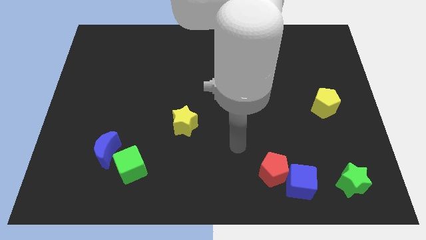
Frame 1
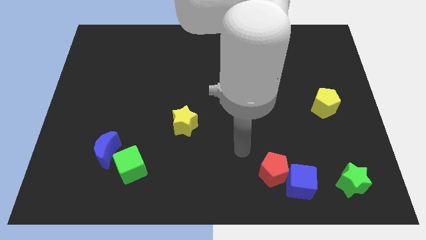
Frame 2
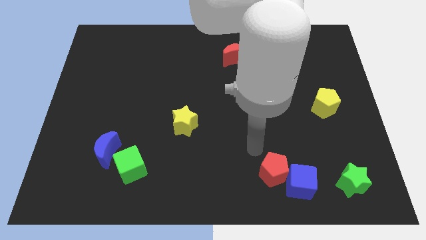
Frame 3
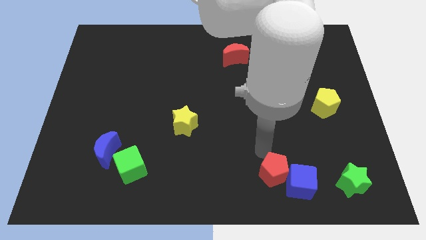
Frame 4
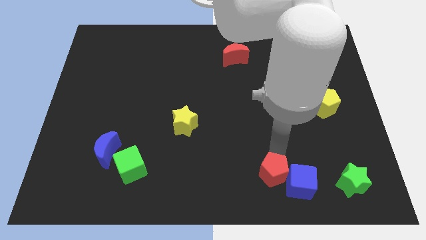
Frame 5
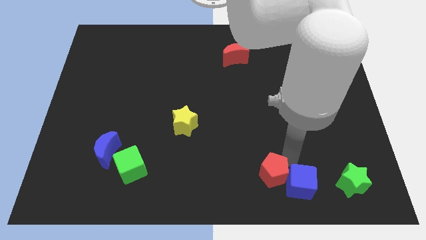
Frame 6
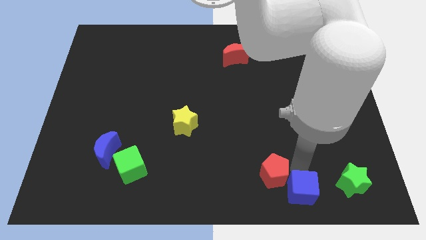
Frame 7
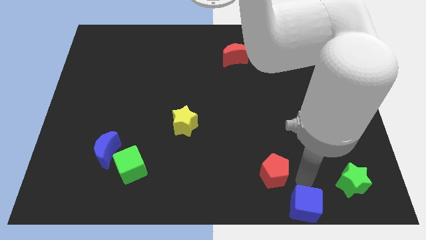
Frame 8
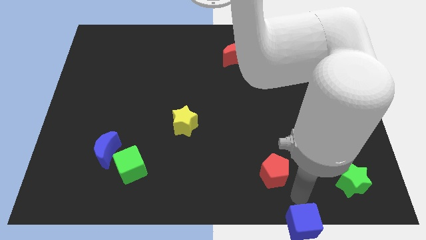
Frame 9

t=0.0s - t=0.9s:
separate the red pentagon from the blue cube

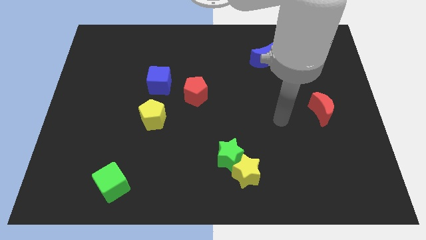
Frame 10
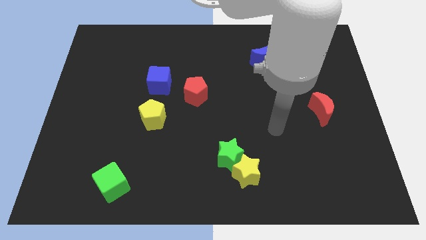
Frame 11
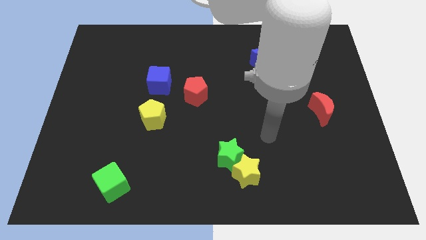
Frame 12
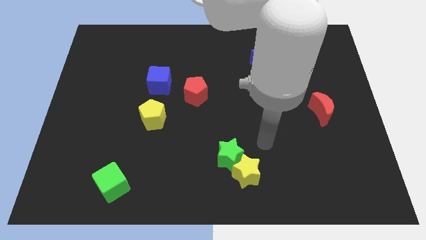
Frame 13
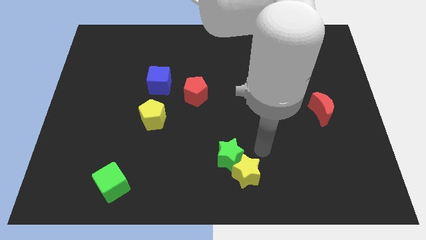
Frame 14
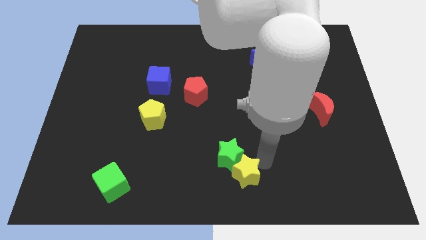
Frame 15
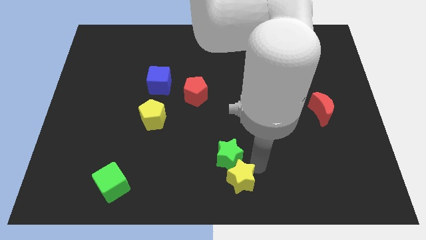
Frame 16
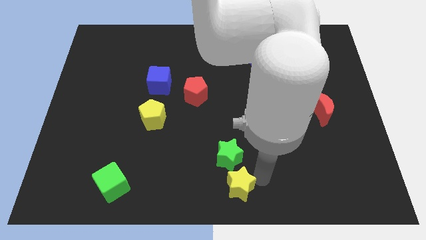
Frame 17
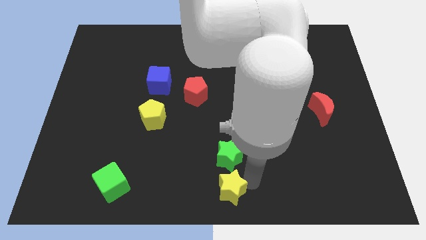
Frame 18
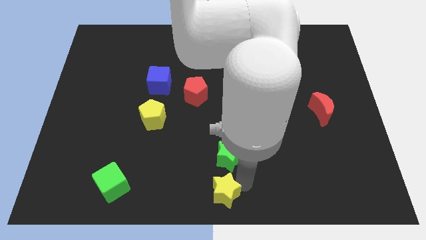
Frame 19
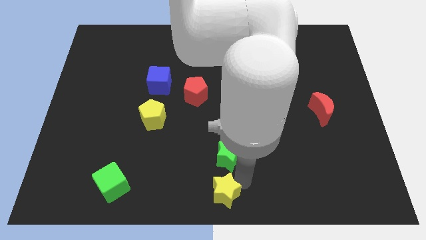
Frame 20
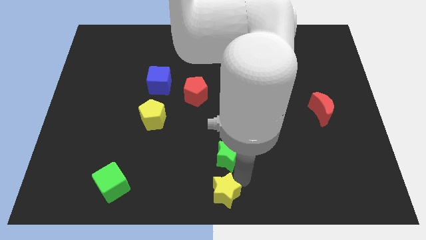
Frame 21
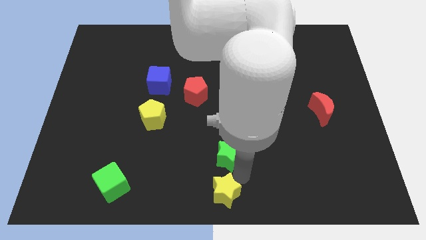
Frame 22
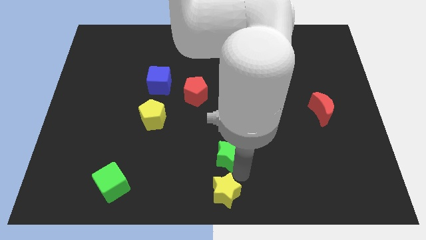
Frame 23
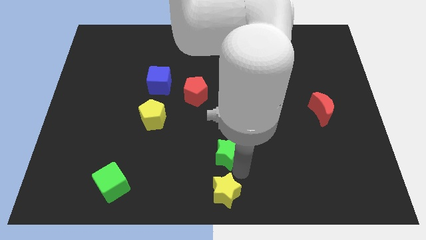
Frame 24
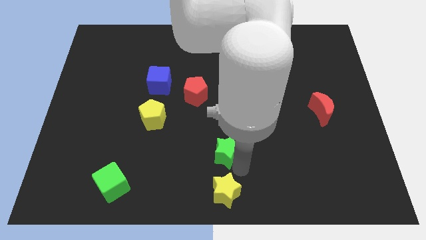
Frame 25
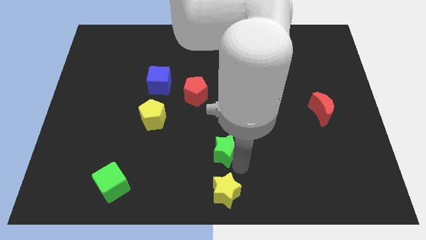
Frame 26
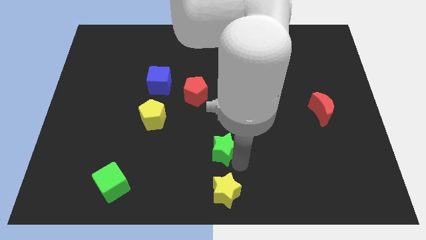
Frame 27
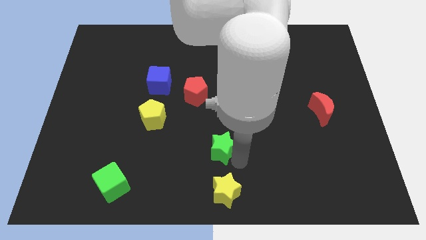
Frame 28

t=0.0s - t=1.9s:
pull the green star apart from the yellow star

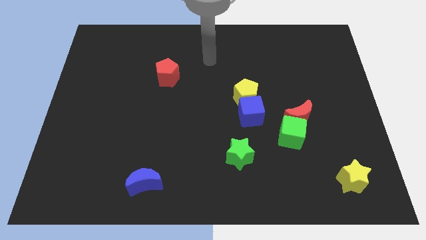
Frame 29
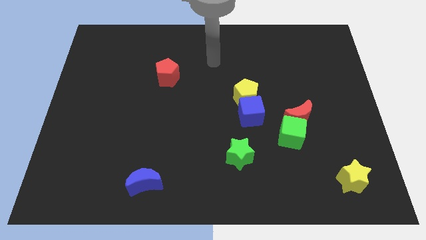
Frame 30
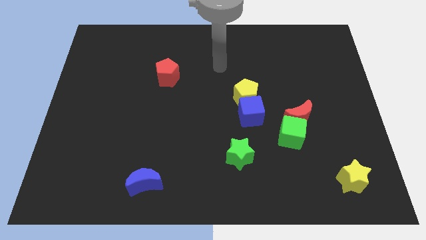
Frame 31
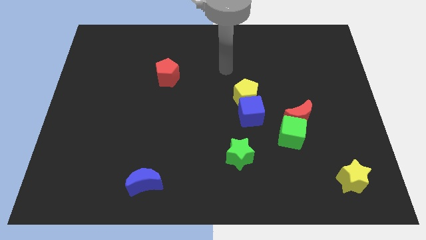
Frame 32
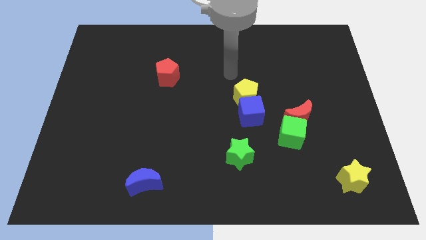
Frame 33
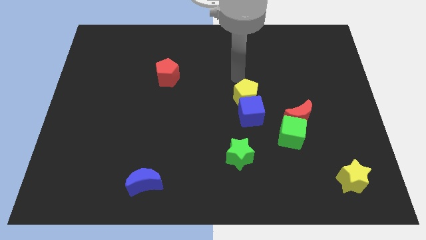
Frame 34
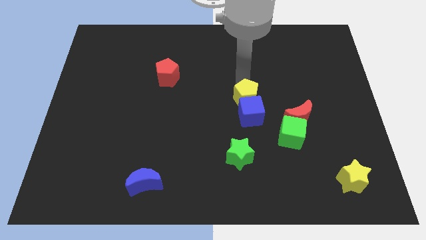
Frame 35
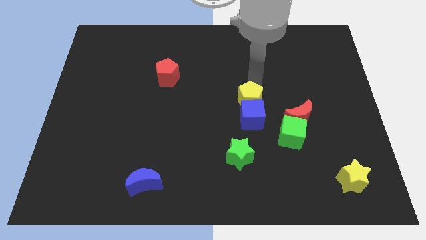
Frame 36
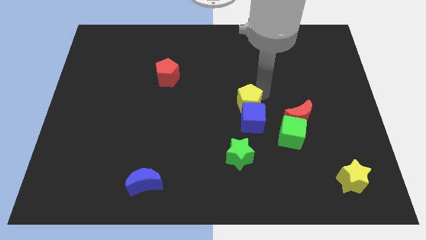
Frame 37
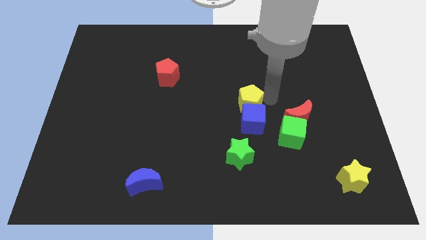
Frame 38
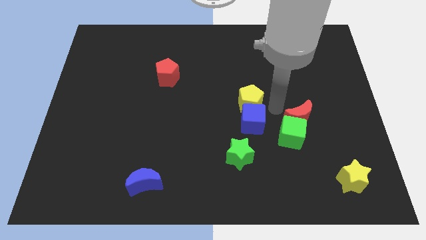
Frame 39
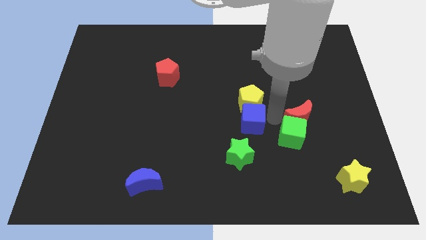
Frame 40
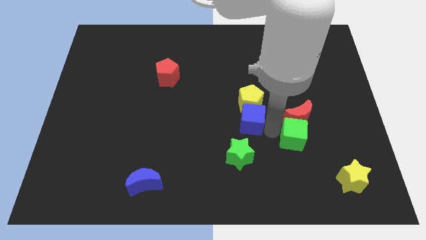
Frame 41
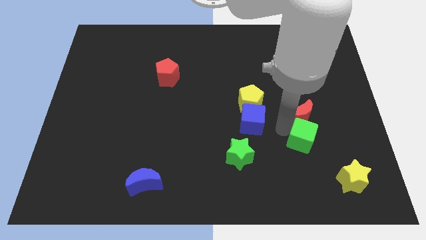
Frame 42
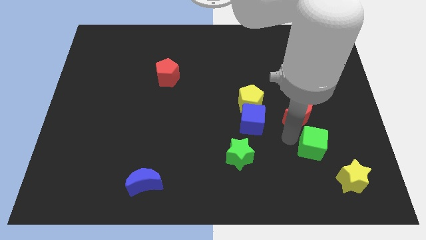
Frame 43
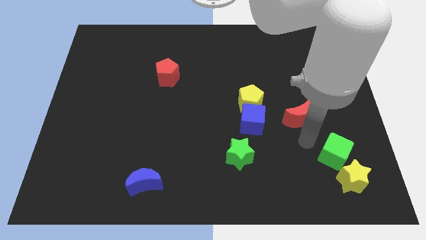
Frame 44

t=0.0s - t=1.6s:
pull the red moon apart from the green cube

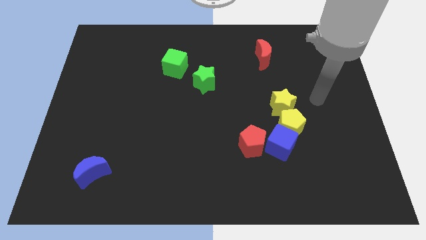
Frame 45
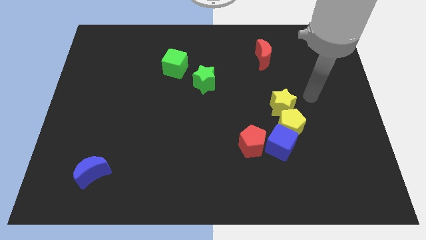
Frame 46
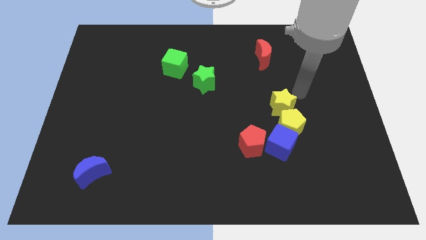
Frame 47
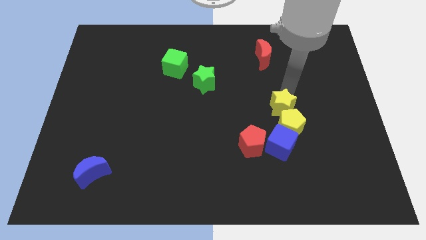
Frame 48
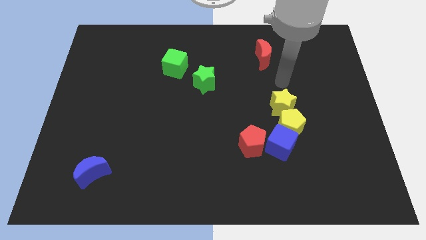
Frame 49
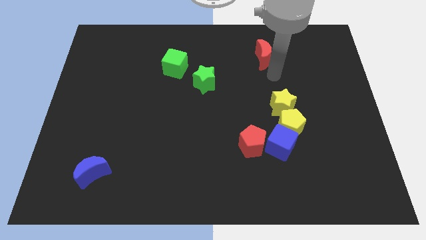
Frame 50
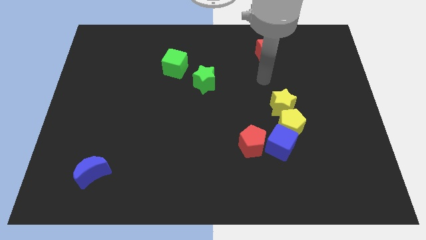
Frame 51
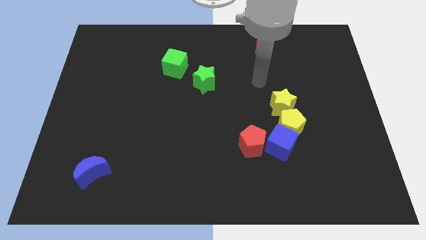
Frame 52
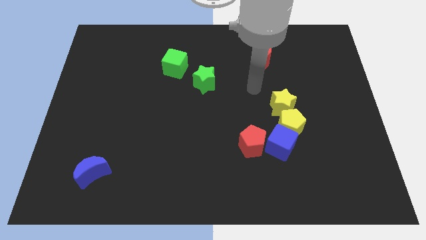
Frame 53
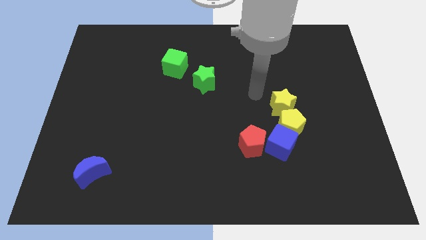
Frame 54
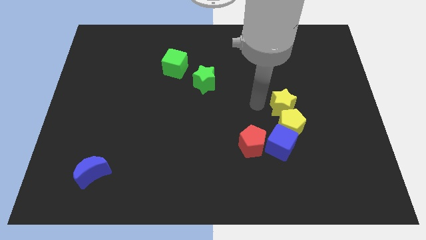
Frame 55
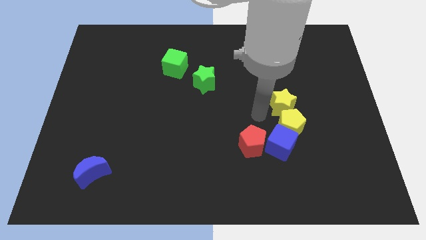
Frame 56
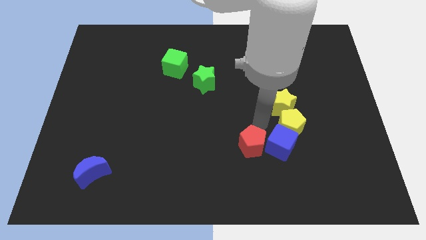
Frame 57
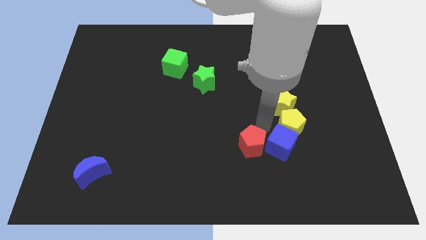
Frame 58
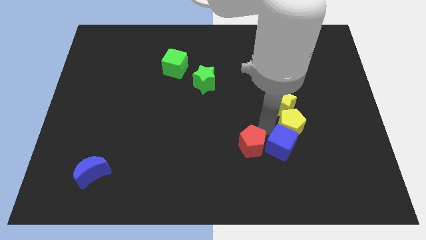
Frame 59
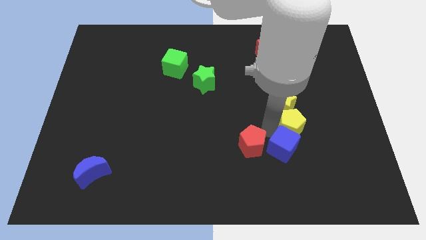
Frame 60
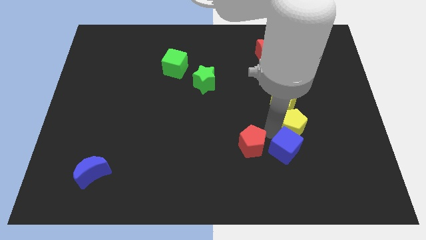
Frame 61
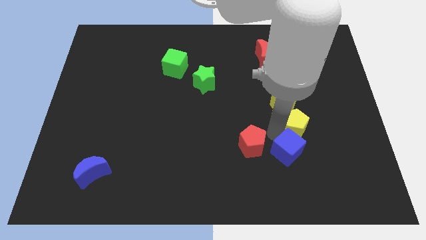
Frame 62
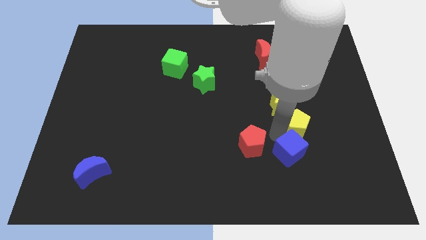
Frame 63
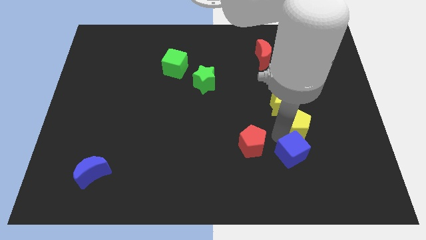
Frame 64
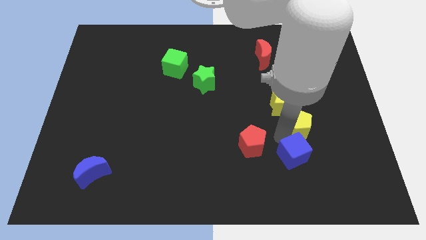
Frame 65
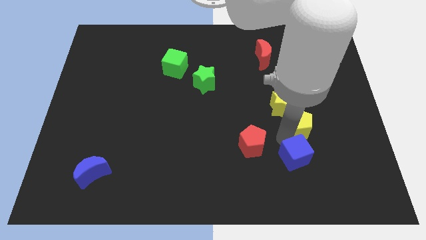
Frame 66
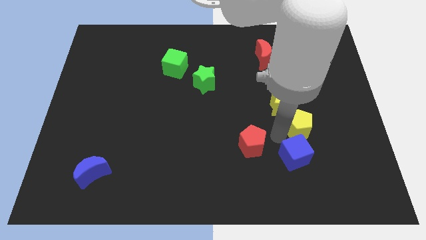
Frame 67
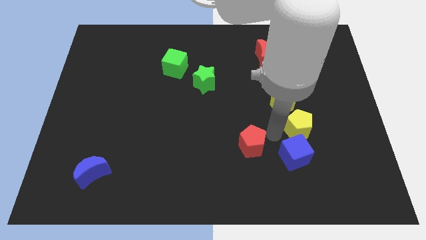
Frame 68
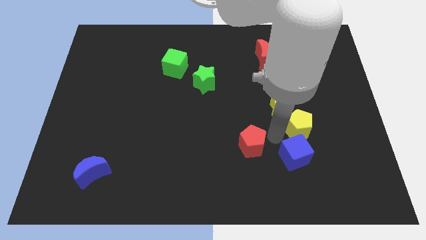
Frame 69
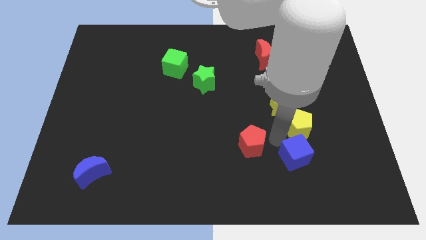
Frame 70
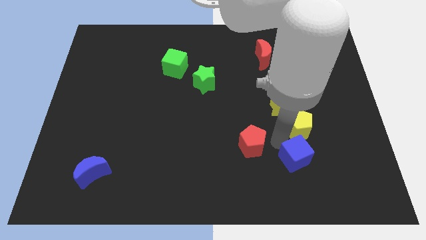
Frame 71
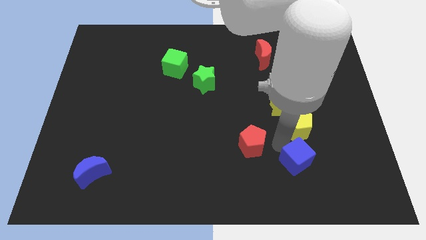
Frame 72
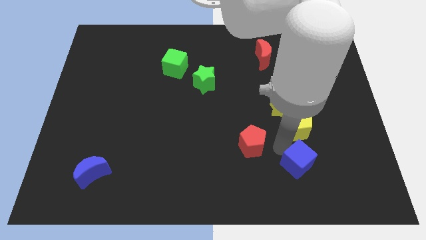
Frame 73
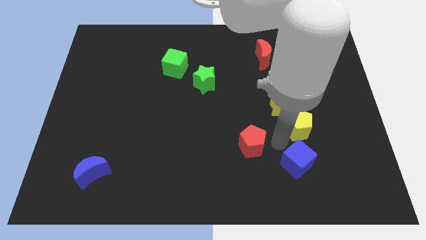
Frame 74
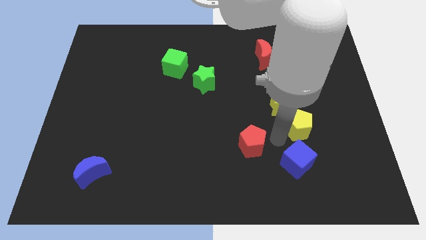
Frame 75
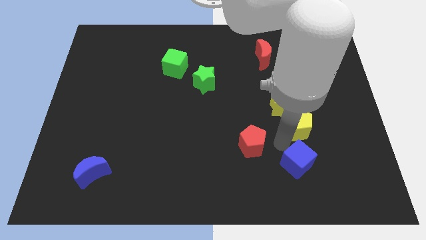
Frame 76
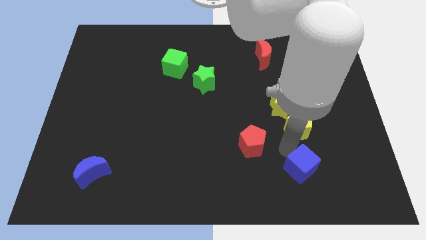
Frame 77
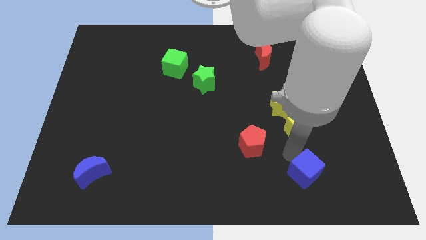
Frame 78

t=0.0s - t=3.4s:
separate the blue cube from the yellow pentagon and red pentagon

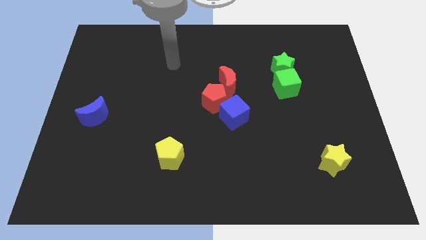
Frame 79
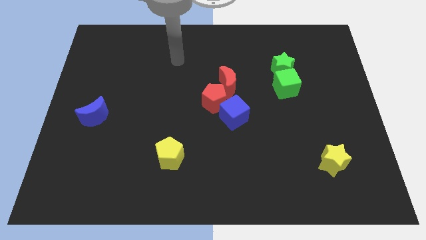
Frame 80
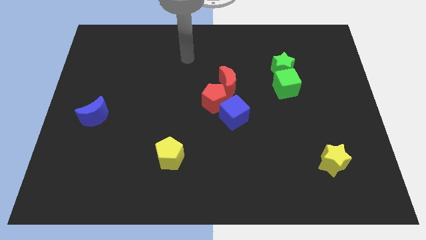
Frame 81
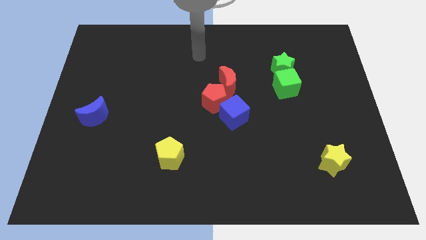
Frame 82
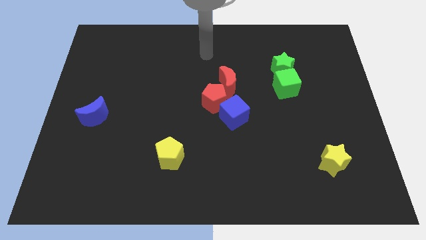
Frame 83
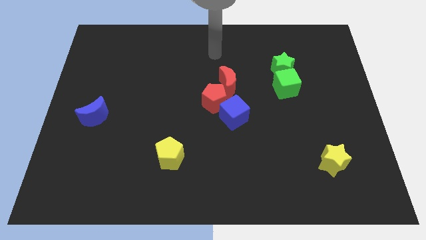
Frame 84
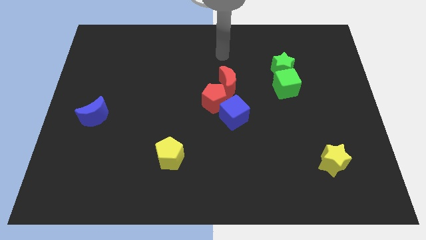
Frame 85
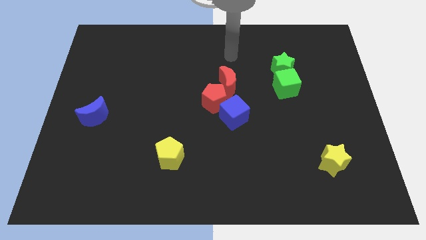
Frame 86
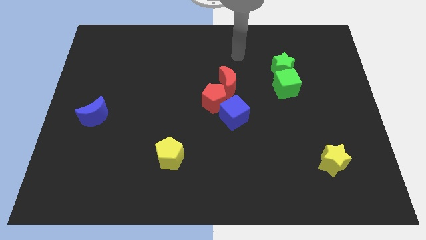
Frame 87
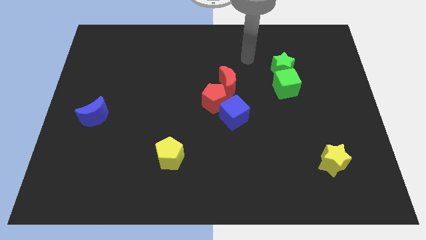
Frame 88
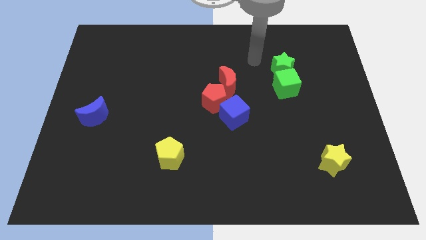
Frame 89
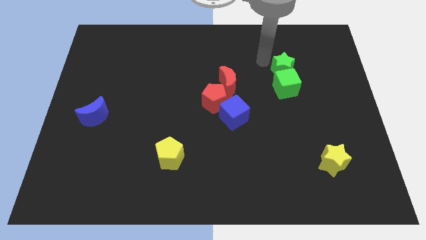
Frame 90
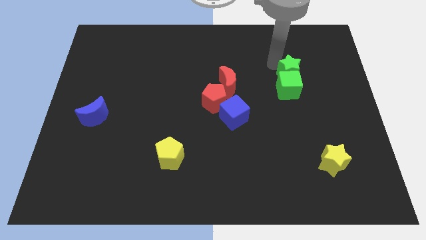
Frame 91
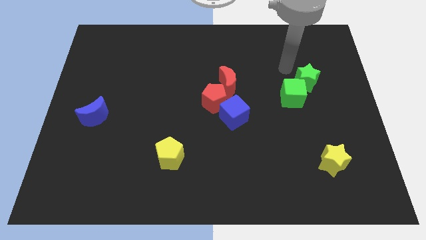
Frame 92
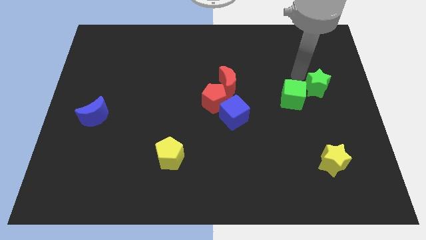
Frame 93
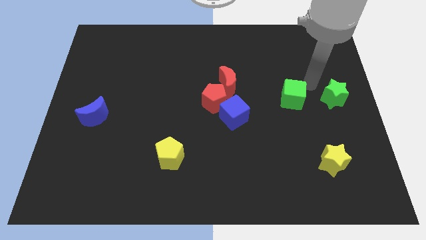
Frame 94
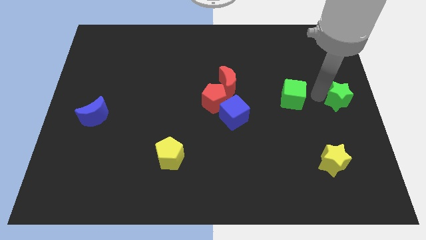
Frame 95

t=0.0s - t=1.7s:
move the green cube away from the green star
